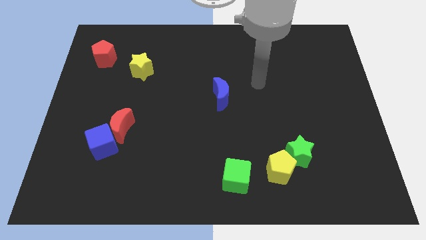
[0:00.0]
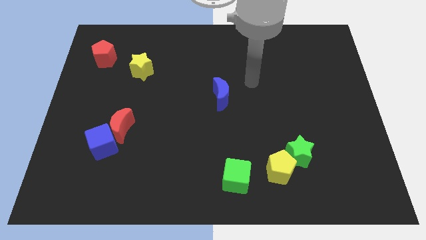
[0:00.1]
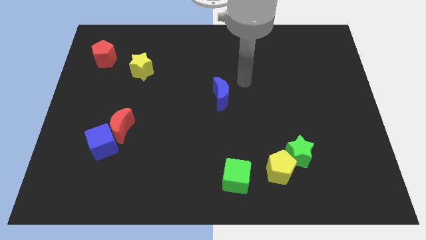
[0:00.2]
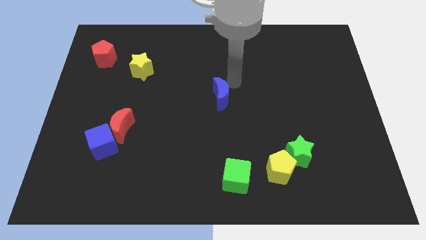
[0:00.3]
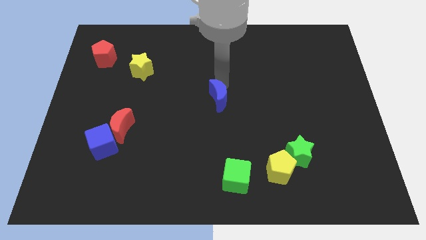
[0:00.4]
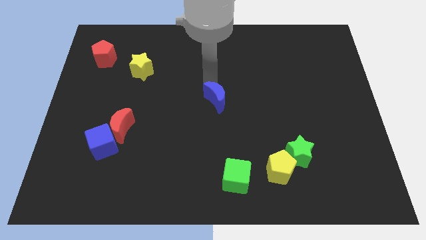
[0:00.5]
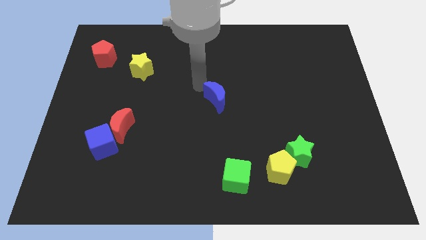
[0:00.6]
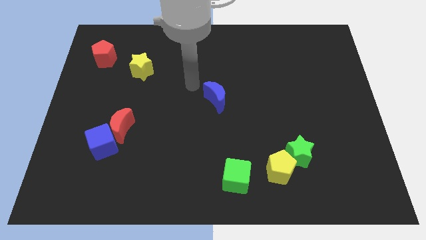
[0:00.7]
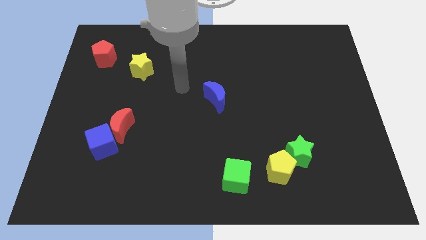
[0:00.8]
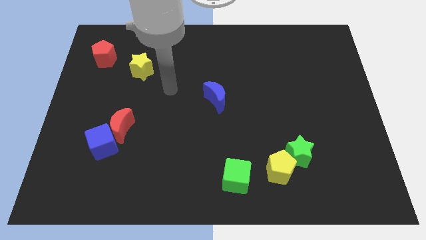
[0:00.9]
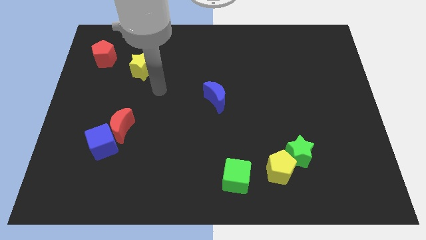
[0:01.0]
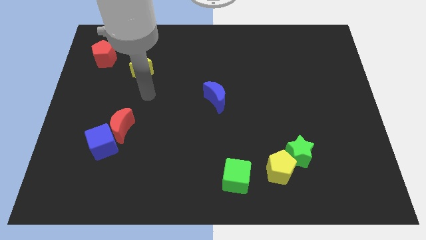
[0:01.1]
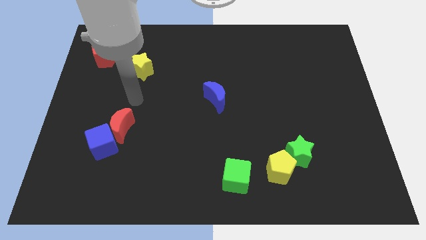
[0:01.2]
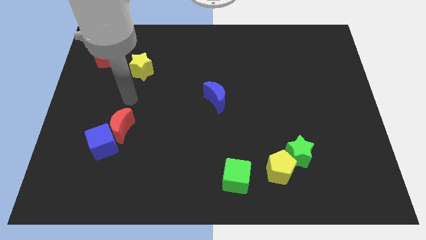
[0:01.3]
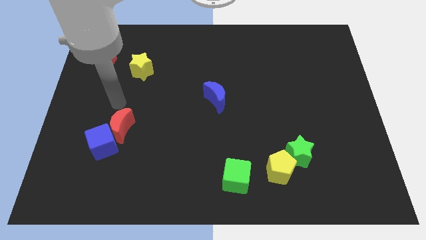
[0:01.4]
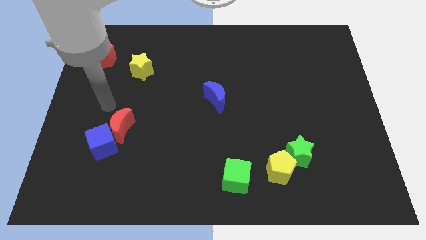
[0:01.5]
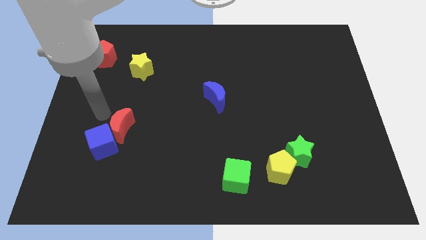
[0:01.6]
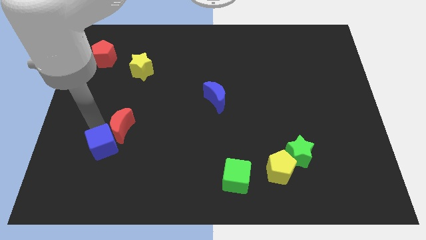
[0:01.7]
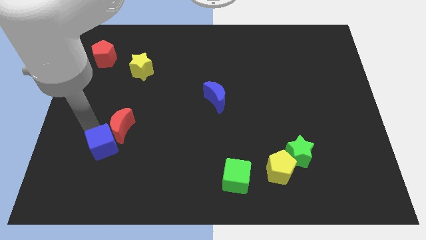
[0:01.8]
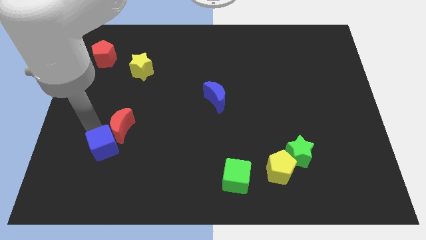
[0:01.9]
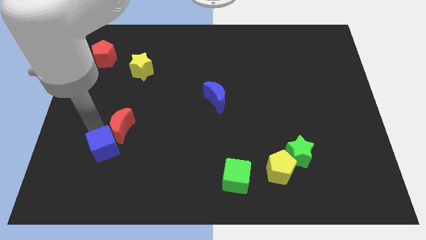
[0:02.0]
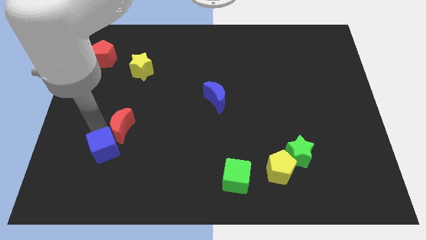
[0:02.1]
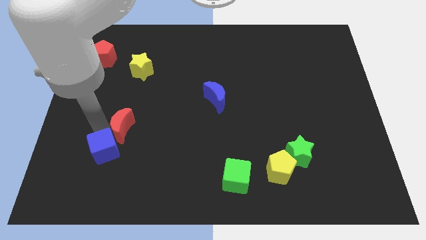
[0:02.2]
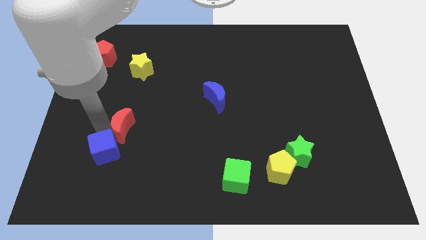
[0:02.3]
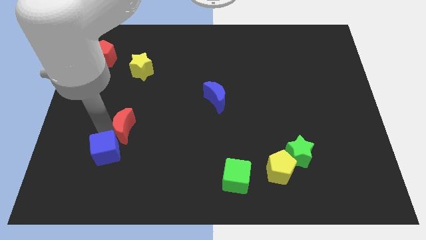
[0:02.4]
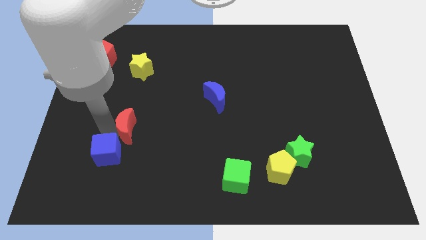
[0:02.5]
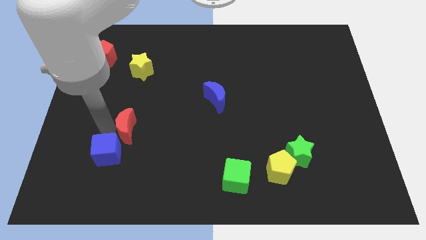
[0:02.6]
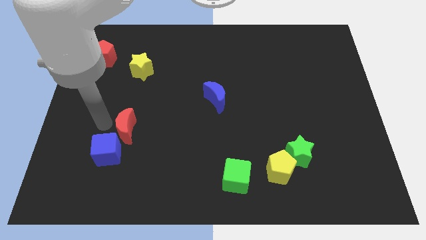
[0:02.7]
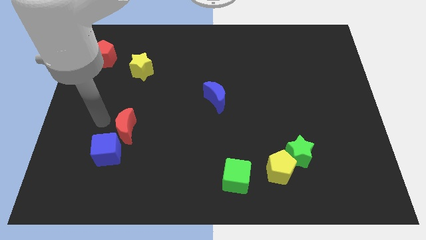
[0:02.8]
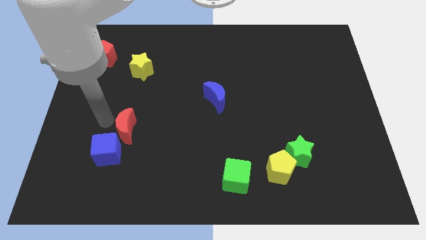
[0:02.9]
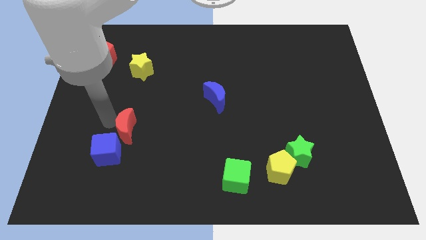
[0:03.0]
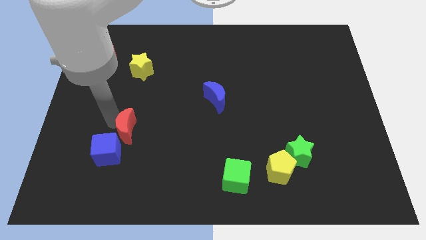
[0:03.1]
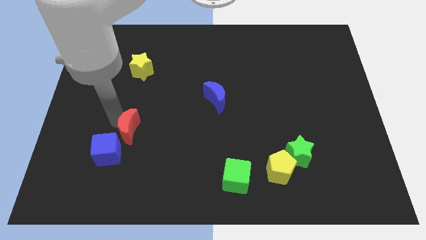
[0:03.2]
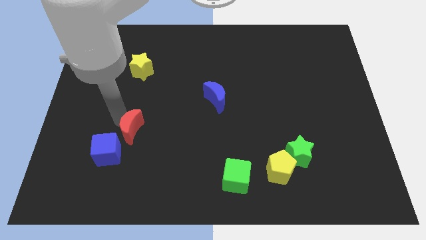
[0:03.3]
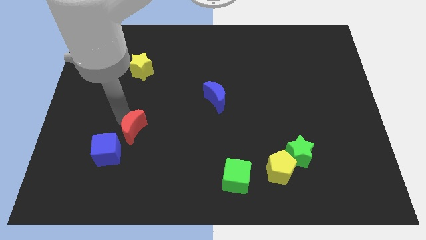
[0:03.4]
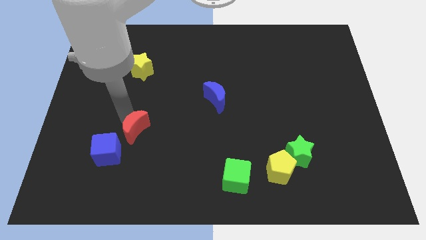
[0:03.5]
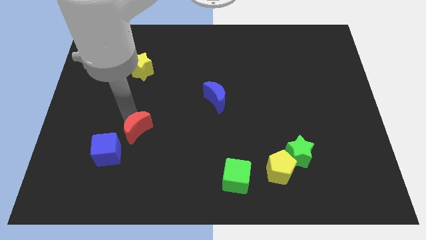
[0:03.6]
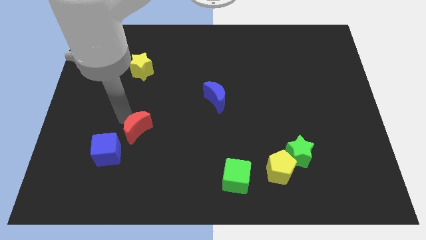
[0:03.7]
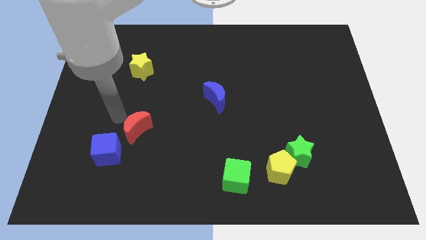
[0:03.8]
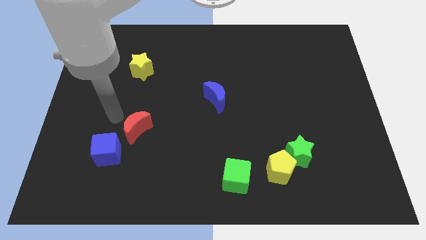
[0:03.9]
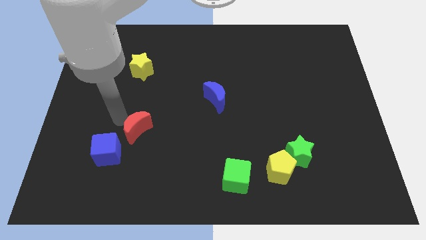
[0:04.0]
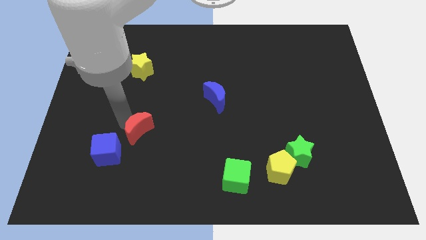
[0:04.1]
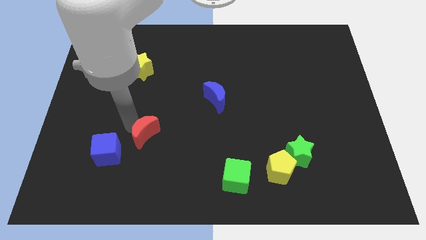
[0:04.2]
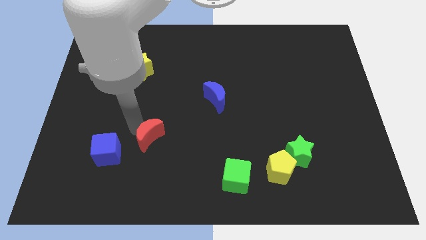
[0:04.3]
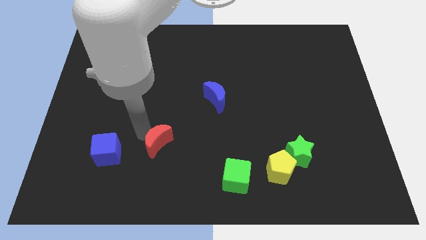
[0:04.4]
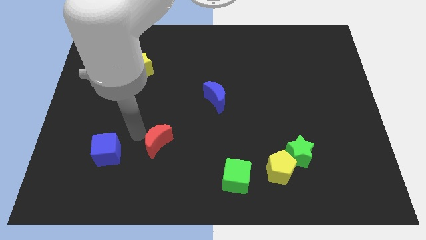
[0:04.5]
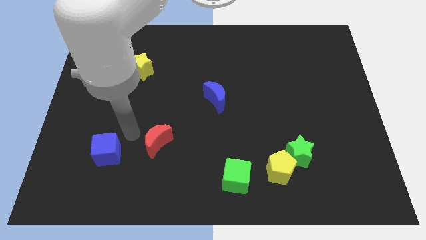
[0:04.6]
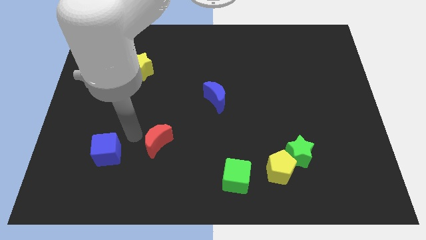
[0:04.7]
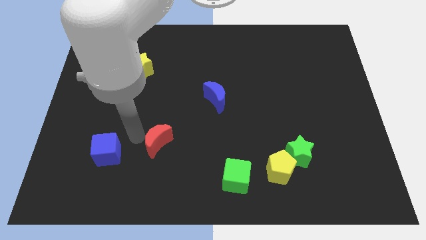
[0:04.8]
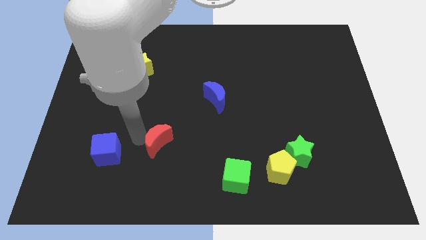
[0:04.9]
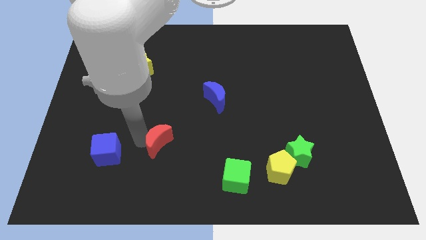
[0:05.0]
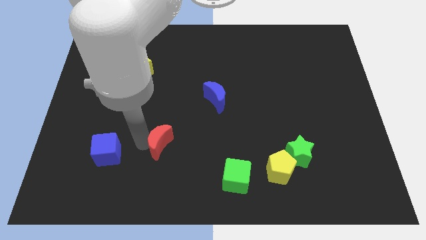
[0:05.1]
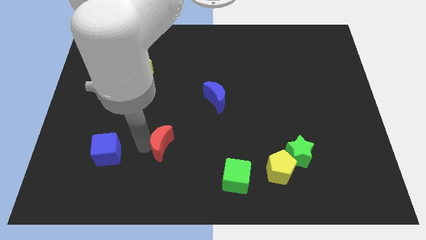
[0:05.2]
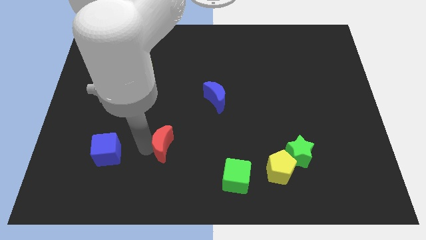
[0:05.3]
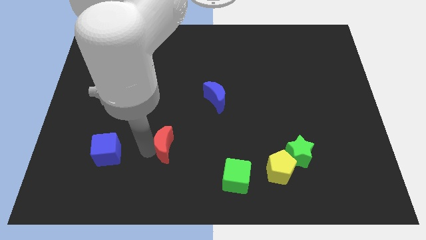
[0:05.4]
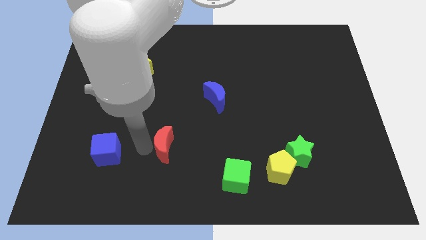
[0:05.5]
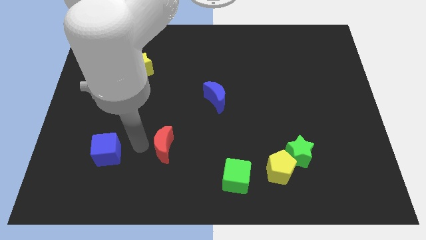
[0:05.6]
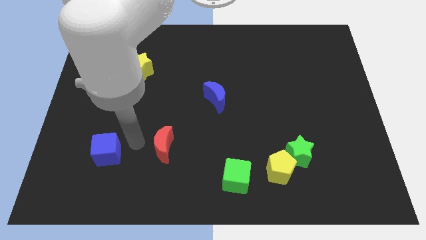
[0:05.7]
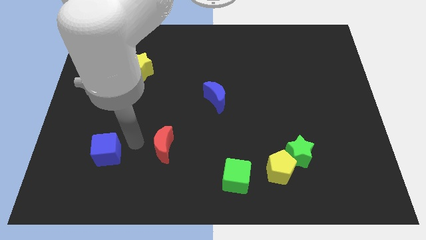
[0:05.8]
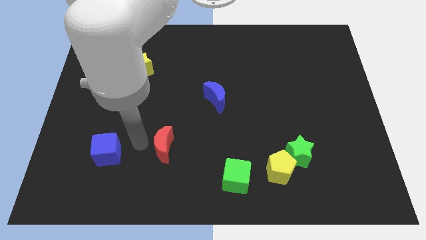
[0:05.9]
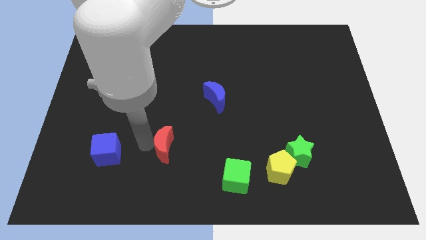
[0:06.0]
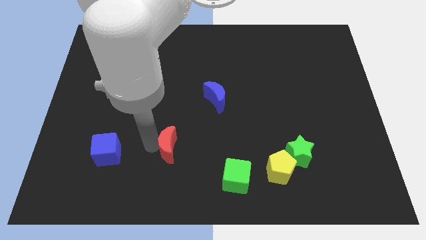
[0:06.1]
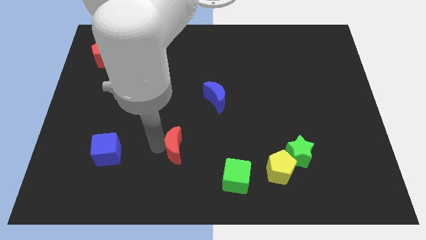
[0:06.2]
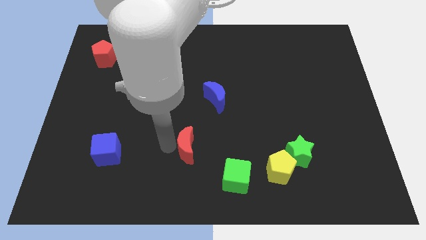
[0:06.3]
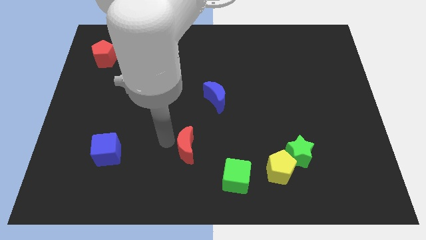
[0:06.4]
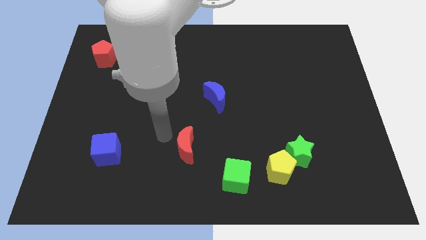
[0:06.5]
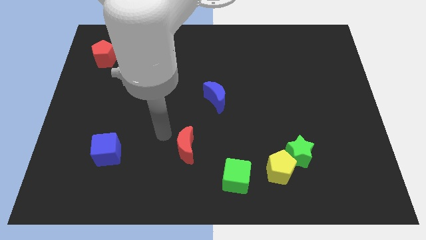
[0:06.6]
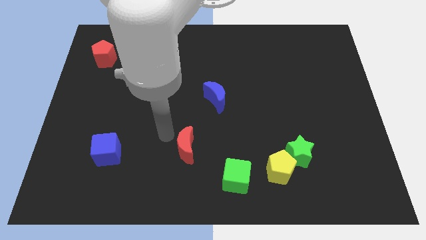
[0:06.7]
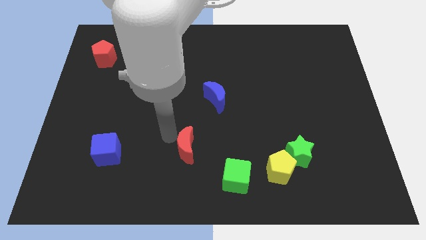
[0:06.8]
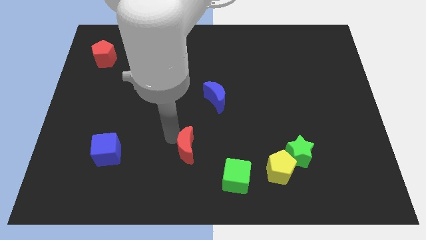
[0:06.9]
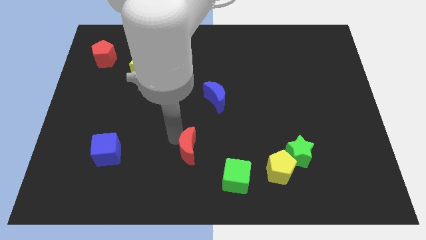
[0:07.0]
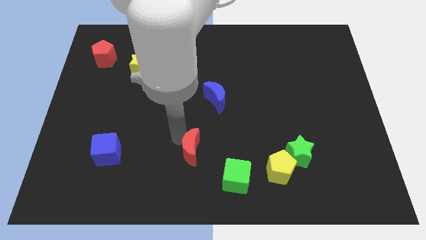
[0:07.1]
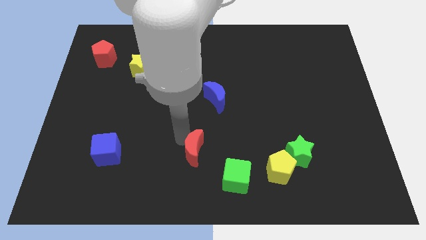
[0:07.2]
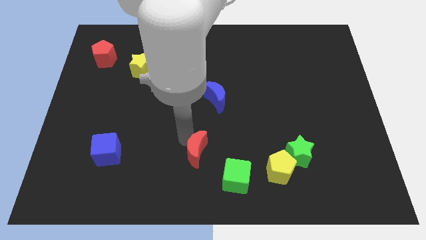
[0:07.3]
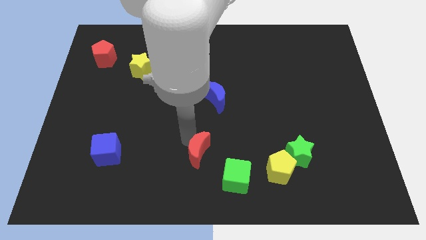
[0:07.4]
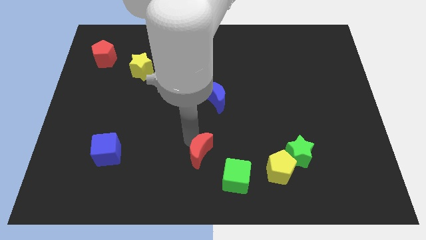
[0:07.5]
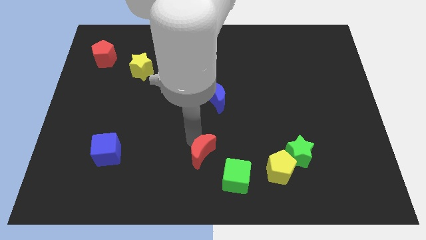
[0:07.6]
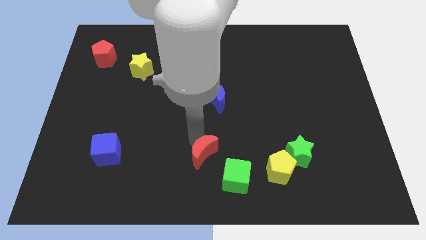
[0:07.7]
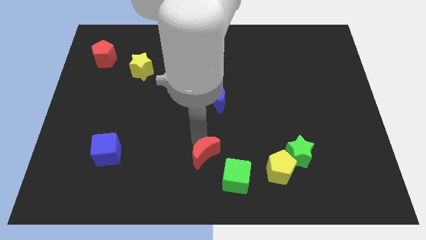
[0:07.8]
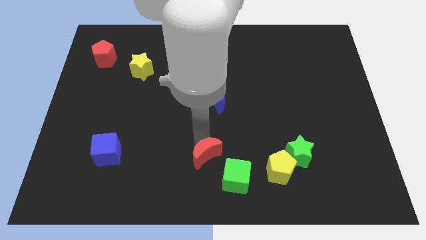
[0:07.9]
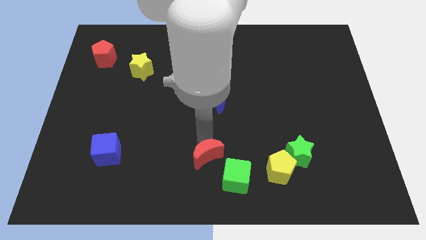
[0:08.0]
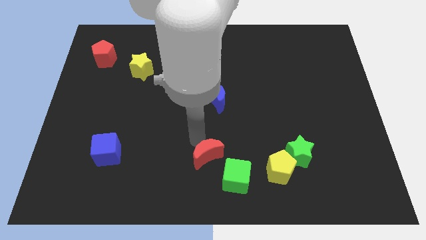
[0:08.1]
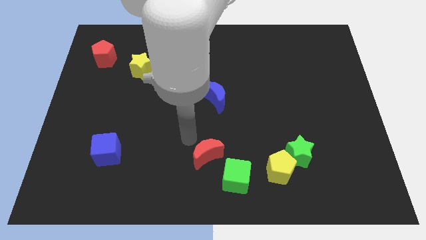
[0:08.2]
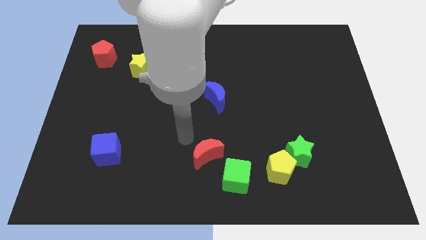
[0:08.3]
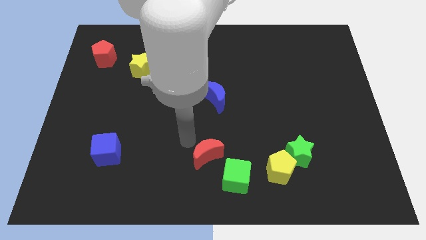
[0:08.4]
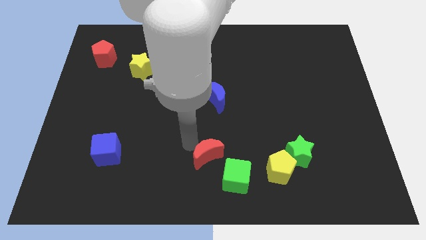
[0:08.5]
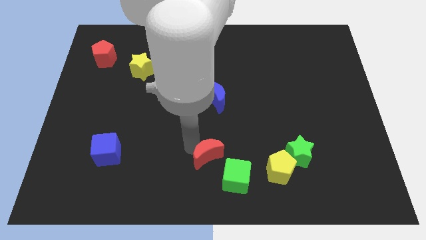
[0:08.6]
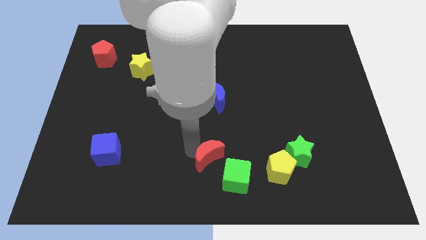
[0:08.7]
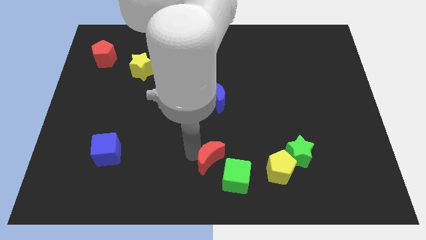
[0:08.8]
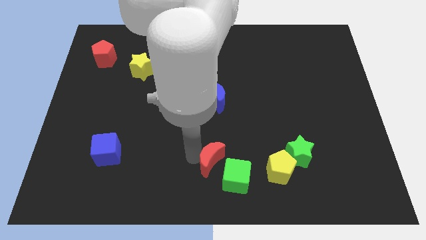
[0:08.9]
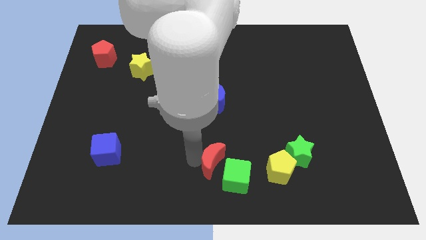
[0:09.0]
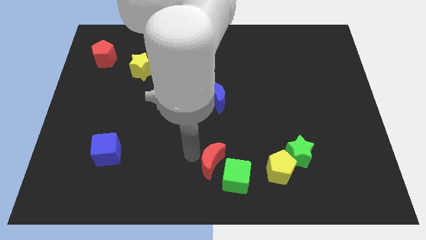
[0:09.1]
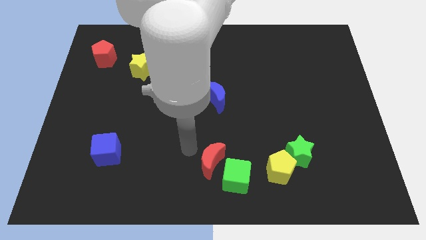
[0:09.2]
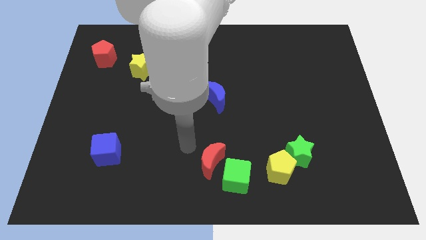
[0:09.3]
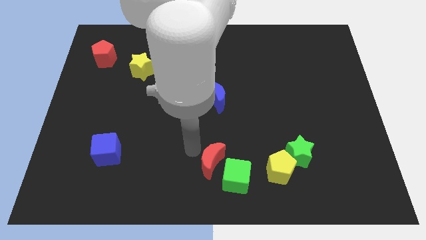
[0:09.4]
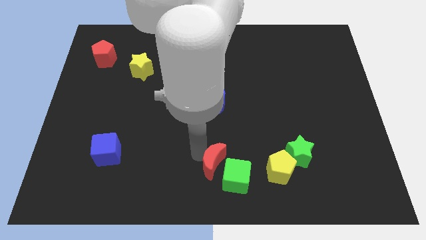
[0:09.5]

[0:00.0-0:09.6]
move the red moon next to the green cube
